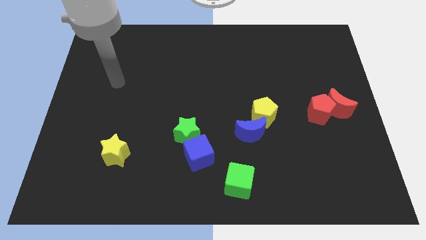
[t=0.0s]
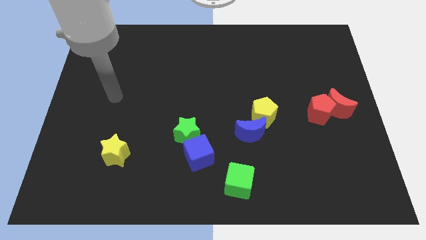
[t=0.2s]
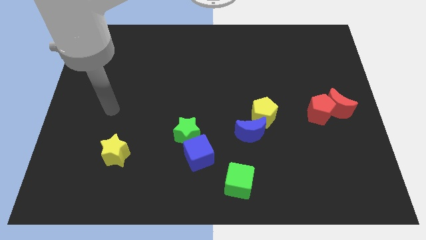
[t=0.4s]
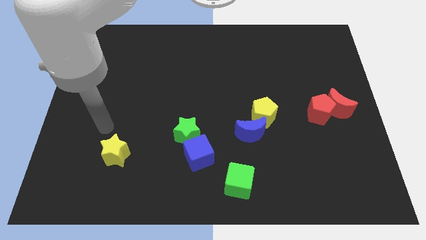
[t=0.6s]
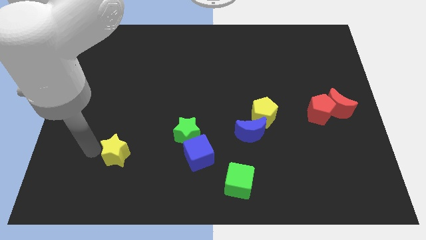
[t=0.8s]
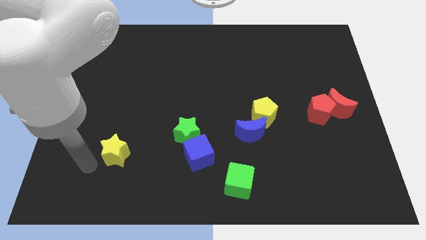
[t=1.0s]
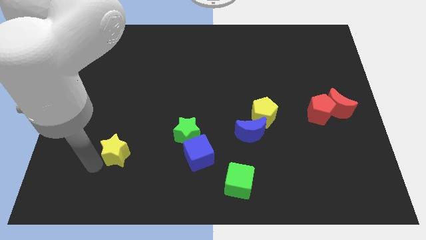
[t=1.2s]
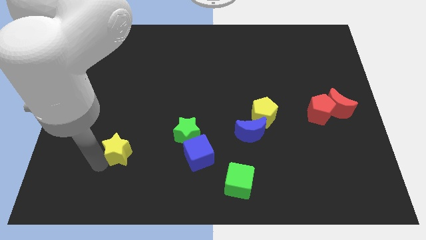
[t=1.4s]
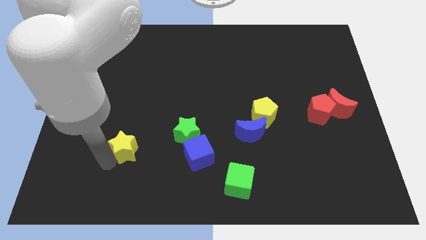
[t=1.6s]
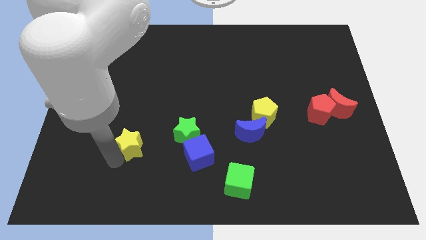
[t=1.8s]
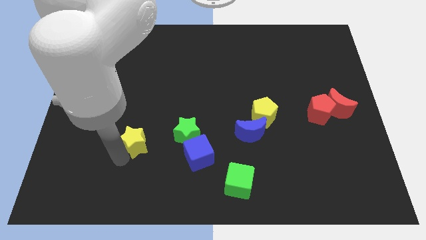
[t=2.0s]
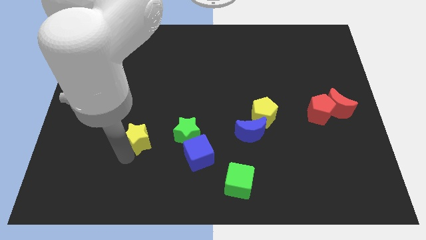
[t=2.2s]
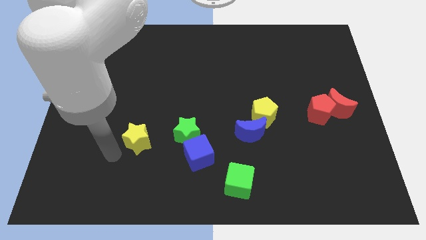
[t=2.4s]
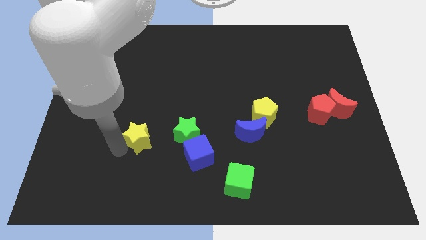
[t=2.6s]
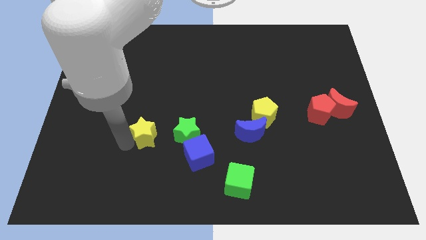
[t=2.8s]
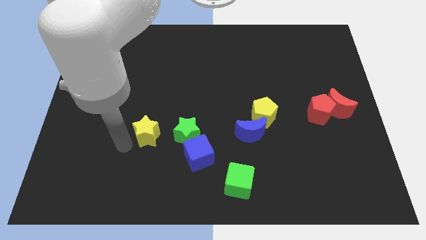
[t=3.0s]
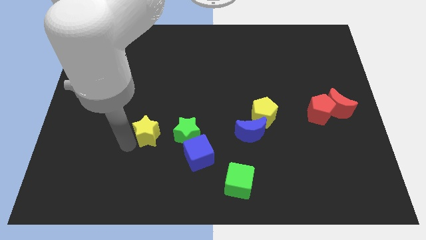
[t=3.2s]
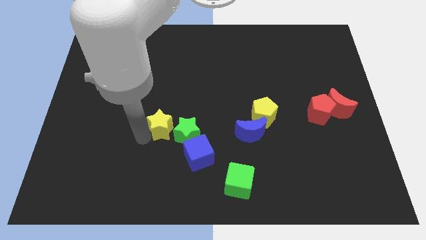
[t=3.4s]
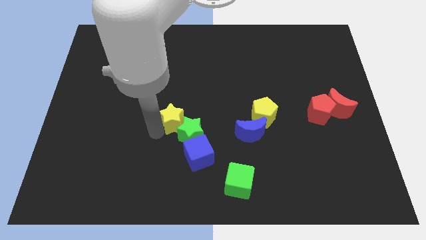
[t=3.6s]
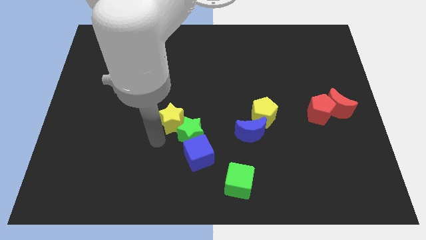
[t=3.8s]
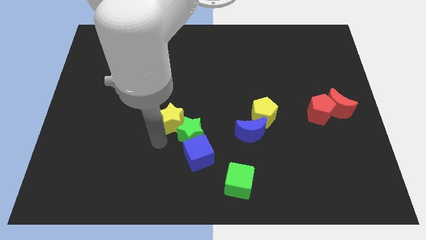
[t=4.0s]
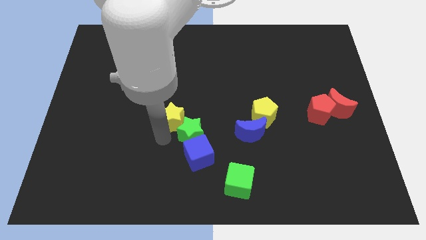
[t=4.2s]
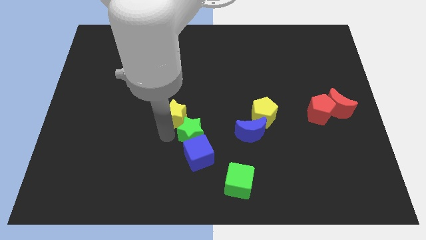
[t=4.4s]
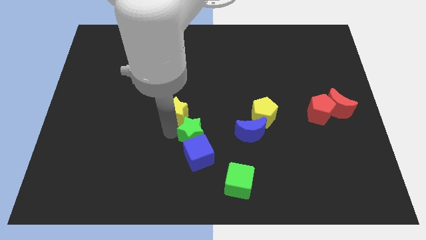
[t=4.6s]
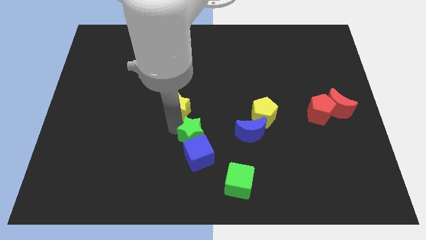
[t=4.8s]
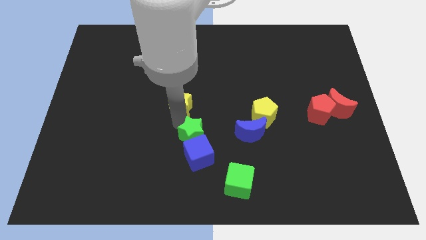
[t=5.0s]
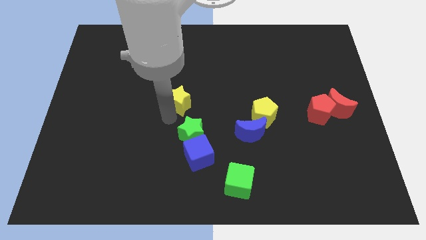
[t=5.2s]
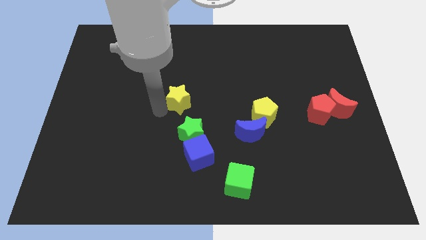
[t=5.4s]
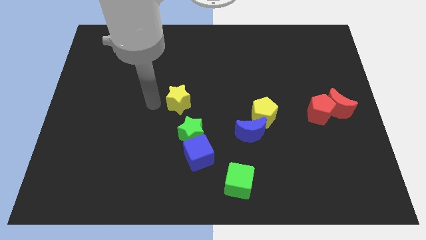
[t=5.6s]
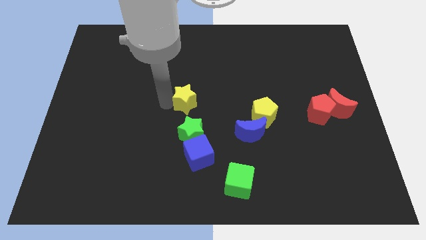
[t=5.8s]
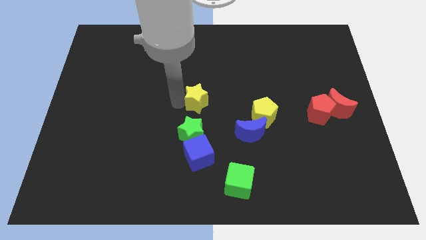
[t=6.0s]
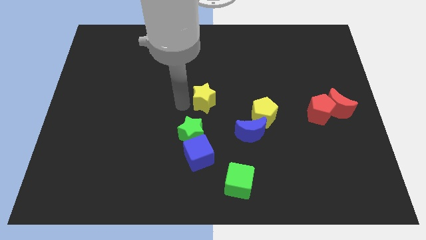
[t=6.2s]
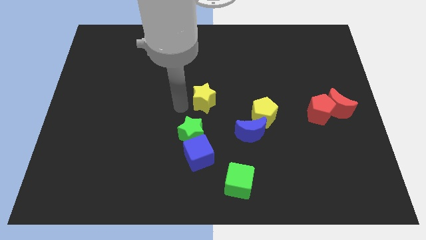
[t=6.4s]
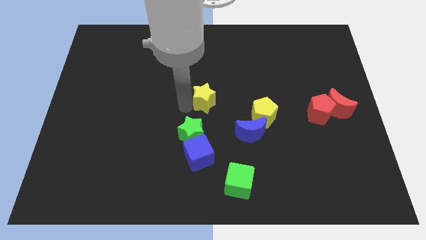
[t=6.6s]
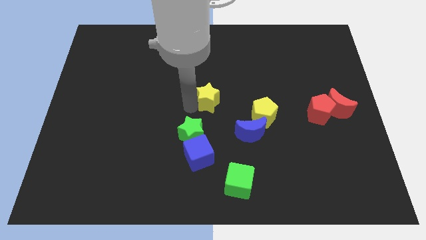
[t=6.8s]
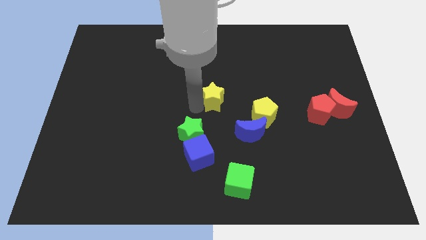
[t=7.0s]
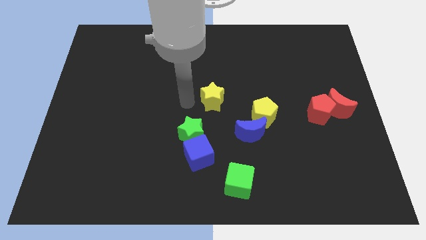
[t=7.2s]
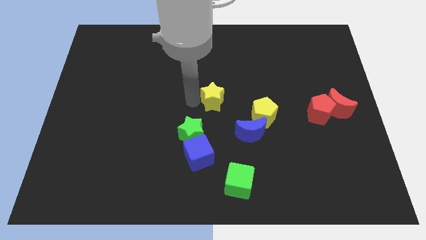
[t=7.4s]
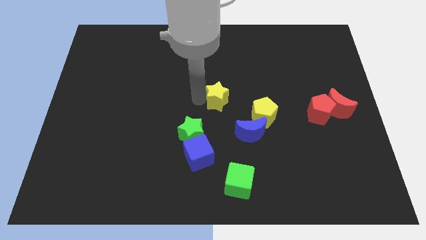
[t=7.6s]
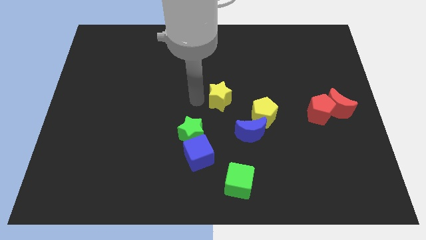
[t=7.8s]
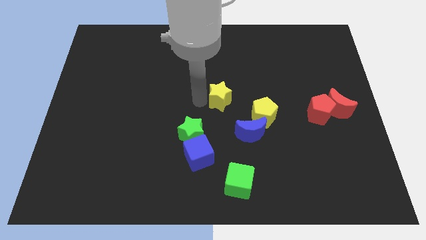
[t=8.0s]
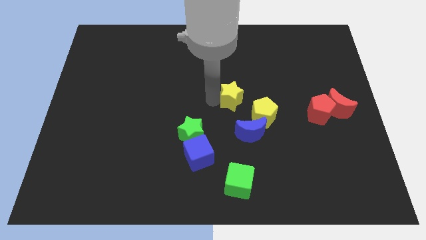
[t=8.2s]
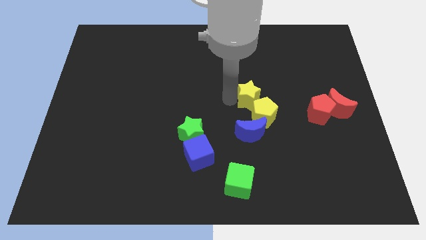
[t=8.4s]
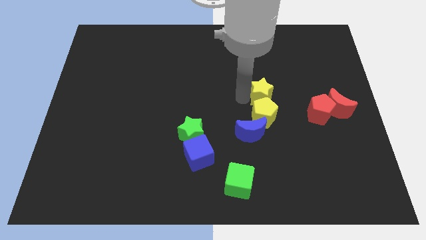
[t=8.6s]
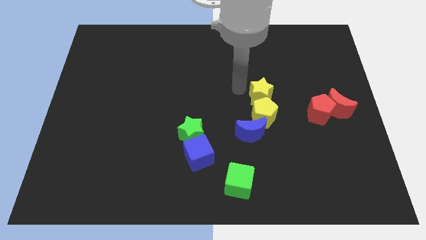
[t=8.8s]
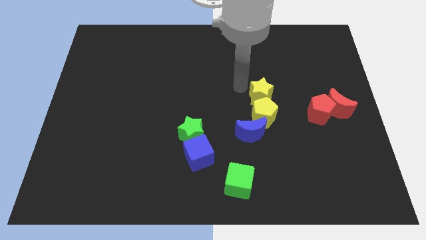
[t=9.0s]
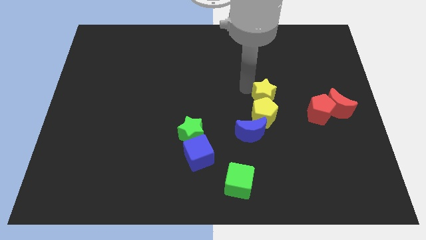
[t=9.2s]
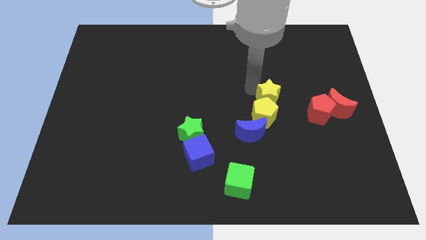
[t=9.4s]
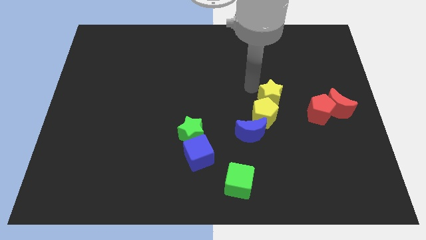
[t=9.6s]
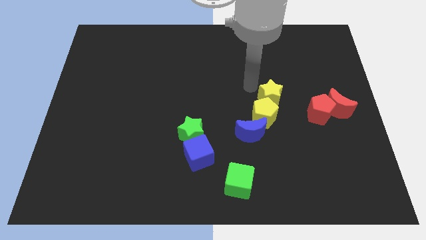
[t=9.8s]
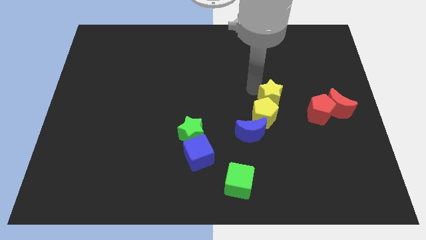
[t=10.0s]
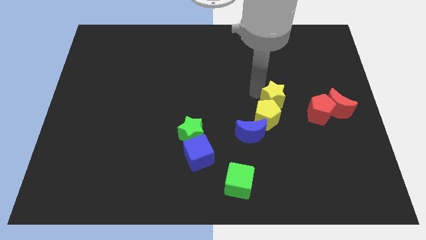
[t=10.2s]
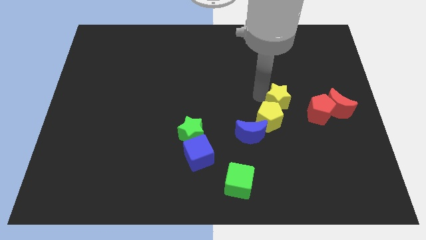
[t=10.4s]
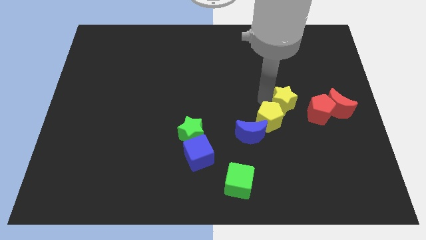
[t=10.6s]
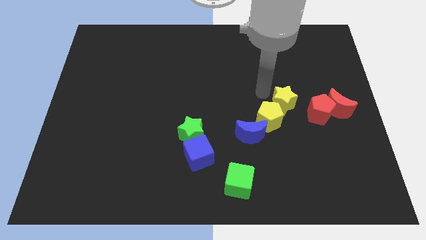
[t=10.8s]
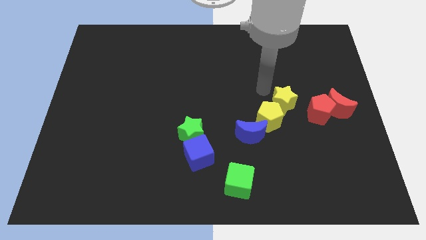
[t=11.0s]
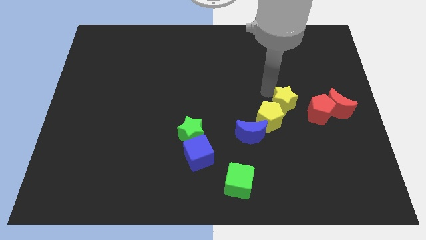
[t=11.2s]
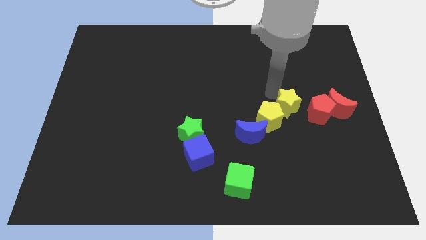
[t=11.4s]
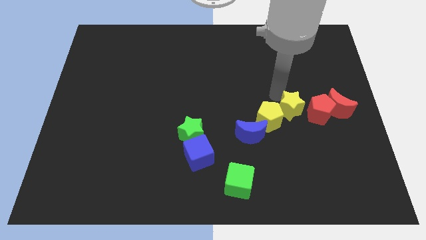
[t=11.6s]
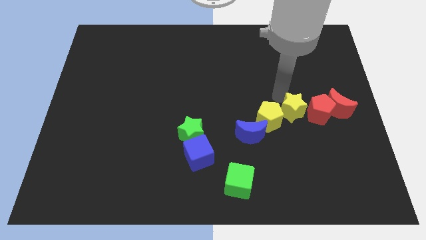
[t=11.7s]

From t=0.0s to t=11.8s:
slide the yellow star close to the red pentagon

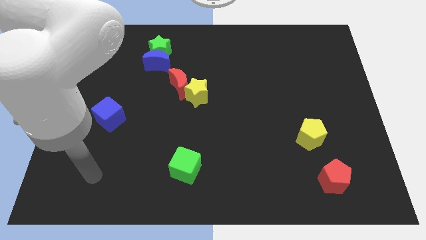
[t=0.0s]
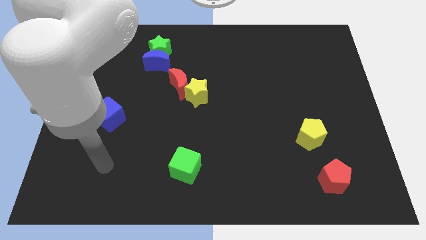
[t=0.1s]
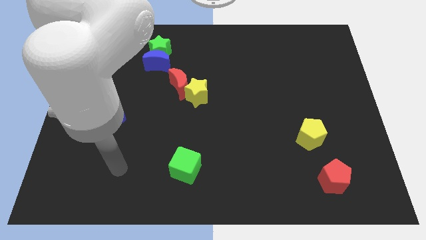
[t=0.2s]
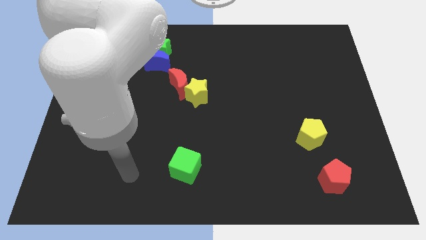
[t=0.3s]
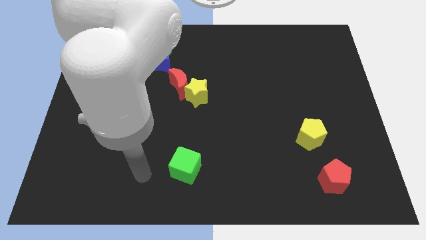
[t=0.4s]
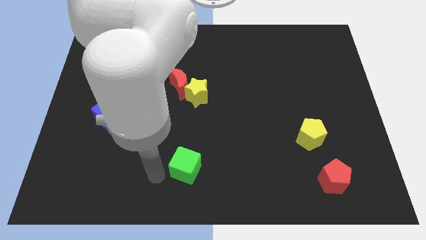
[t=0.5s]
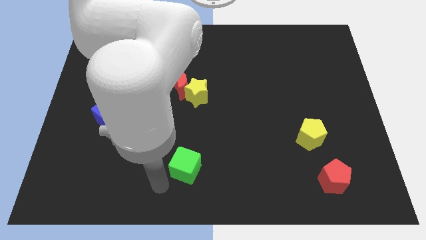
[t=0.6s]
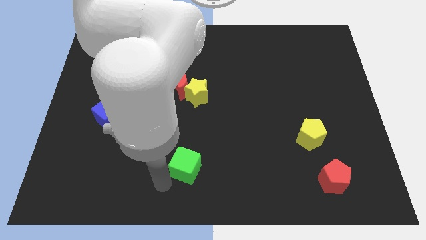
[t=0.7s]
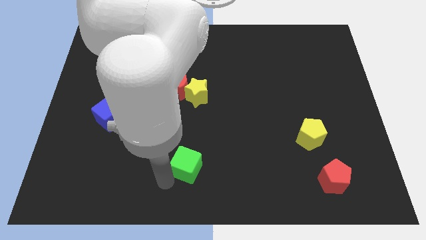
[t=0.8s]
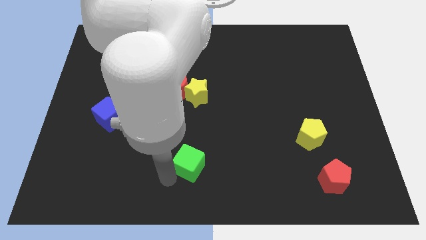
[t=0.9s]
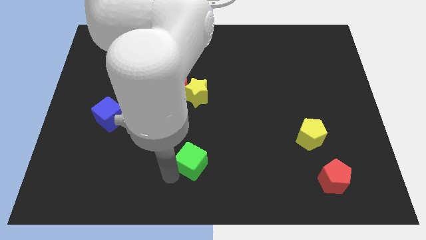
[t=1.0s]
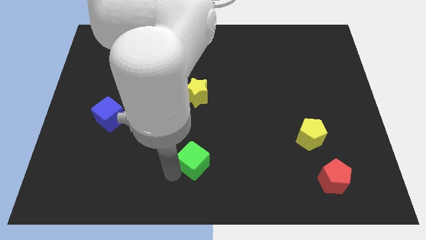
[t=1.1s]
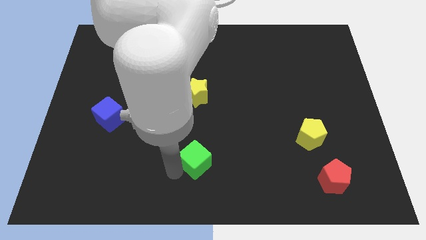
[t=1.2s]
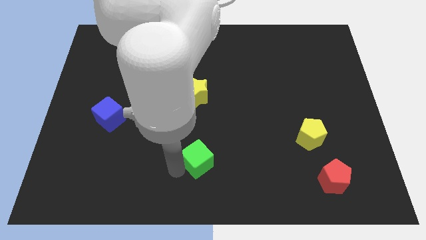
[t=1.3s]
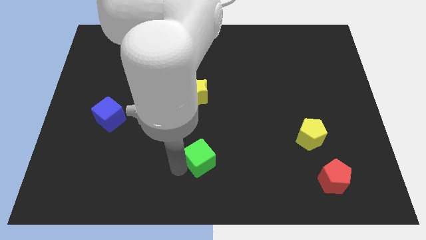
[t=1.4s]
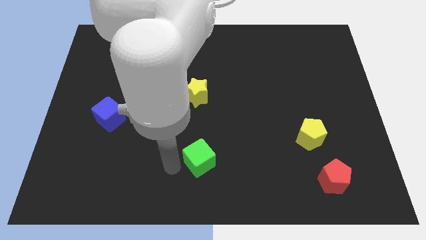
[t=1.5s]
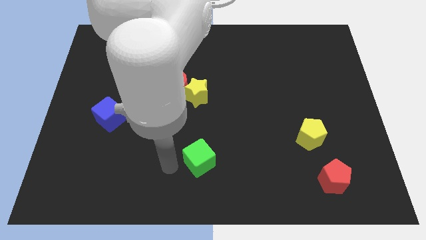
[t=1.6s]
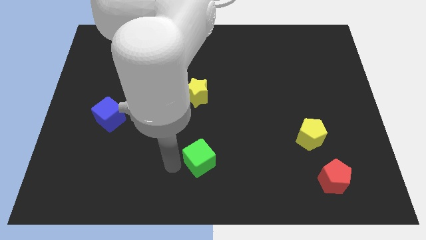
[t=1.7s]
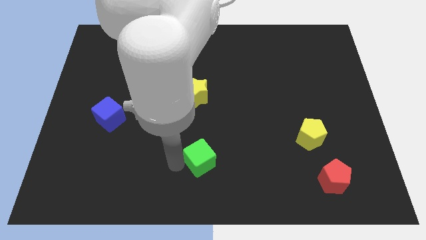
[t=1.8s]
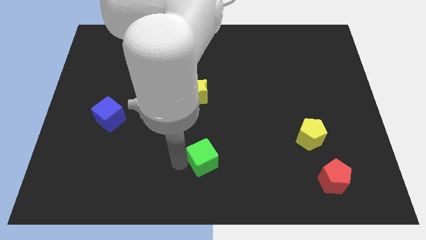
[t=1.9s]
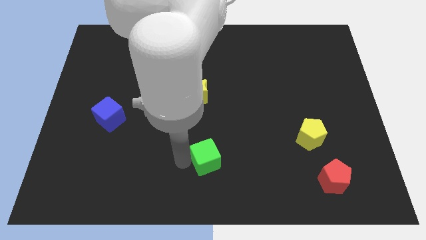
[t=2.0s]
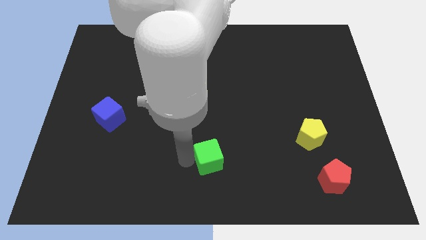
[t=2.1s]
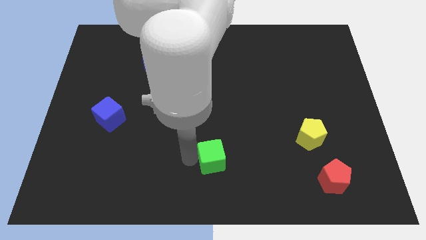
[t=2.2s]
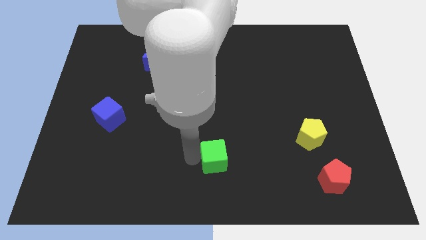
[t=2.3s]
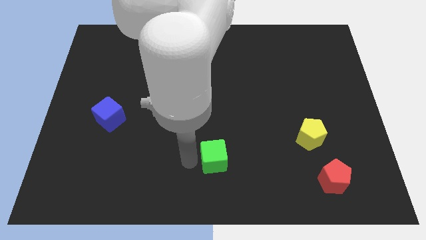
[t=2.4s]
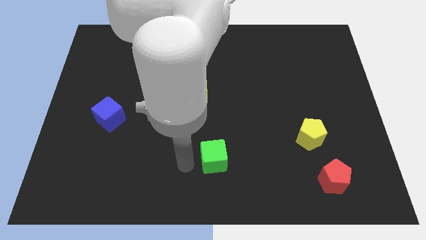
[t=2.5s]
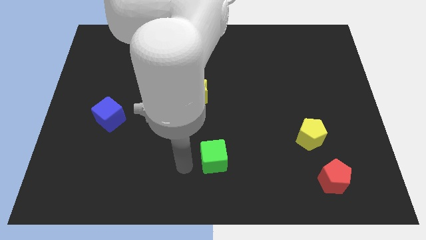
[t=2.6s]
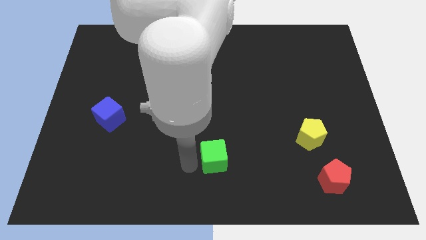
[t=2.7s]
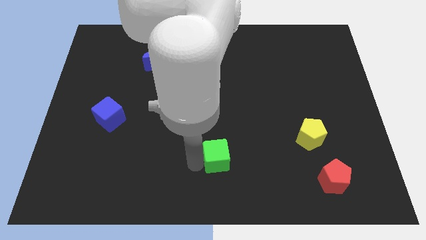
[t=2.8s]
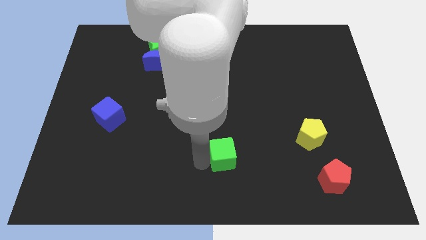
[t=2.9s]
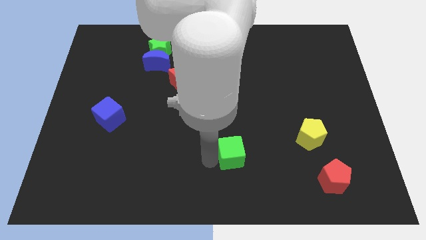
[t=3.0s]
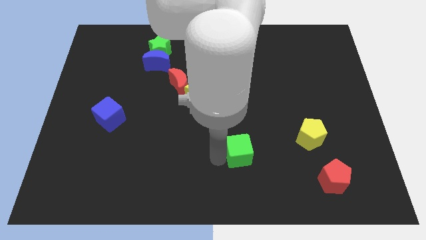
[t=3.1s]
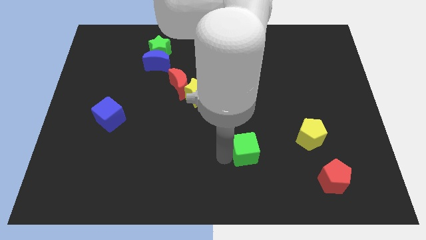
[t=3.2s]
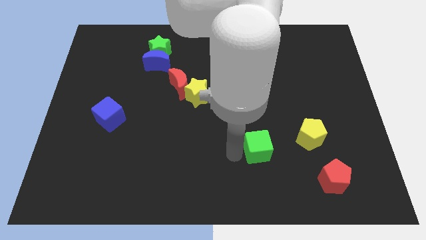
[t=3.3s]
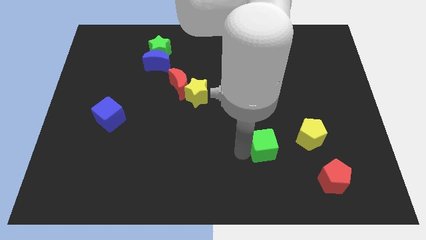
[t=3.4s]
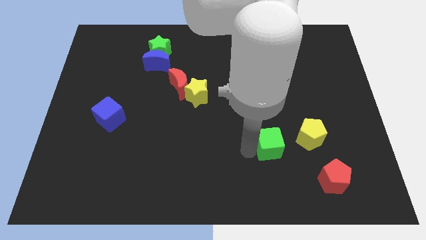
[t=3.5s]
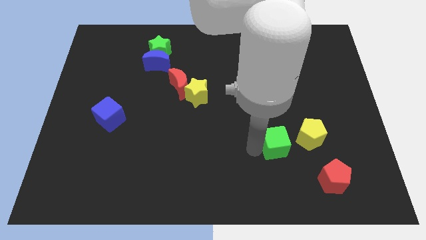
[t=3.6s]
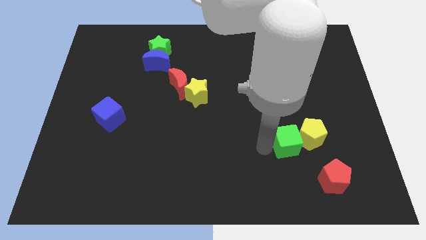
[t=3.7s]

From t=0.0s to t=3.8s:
push the green cube to the yellow pentagon
